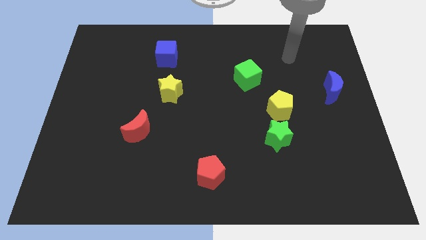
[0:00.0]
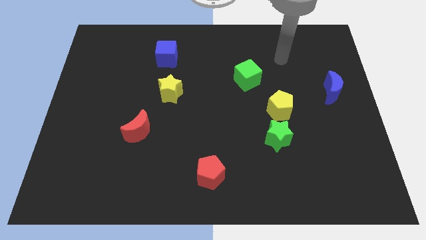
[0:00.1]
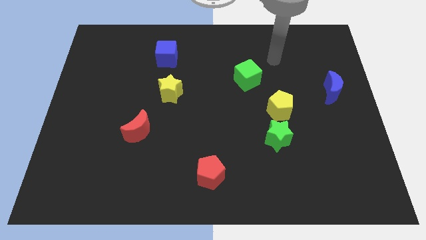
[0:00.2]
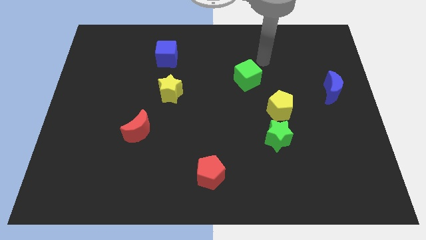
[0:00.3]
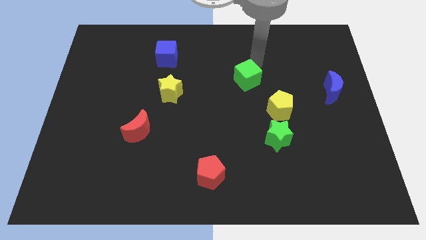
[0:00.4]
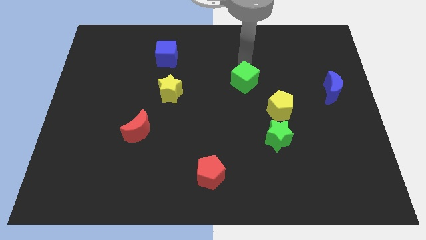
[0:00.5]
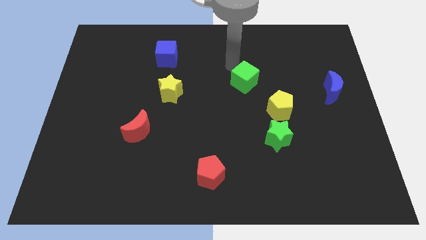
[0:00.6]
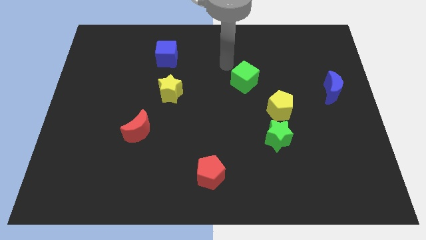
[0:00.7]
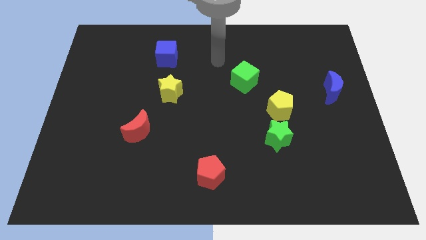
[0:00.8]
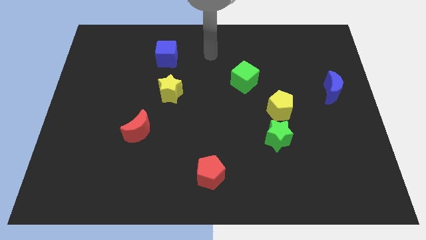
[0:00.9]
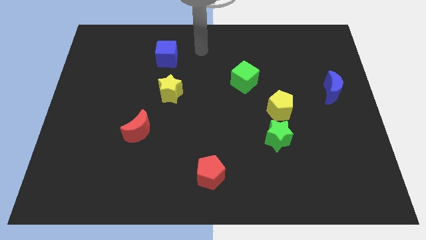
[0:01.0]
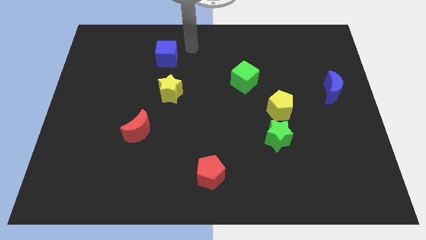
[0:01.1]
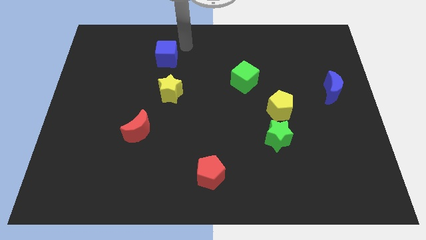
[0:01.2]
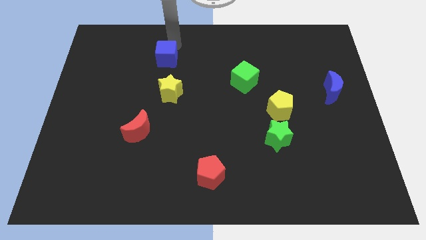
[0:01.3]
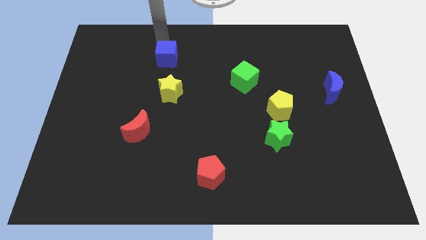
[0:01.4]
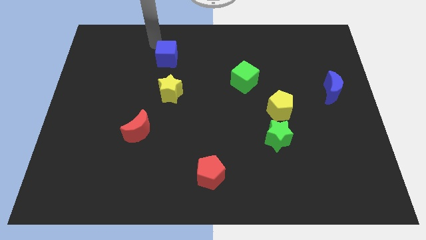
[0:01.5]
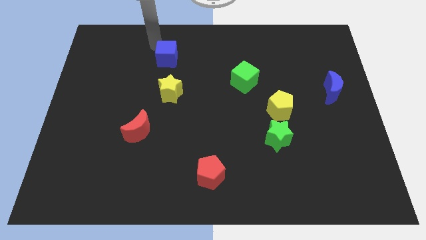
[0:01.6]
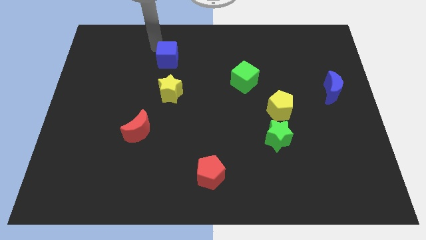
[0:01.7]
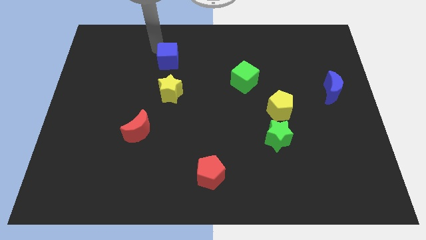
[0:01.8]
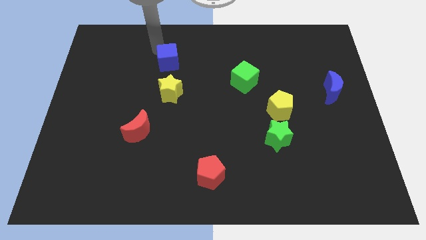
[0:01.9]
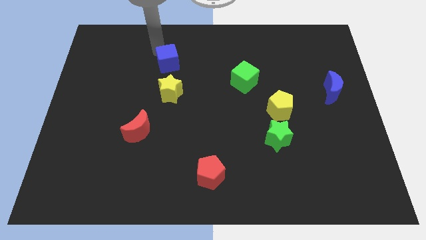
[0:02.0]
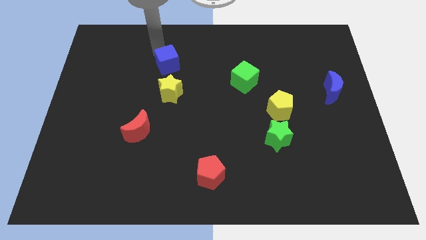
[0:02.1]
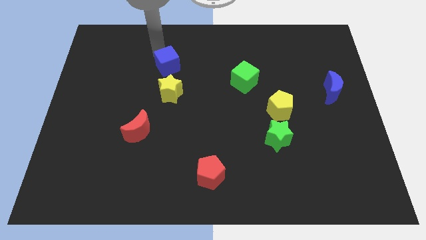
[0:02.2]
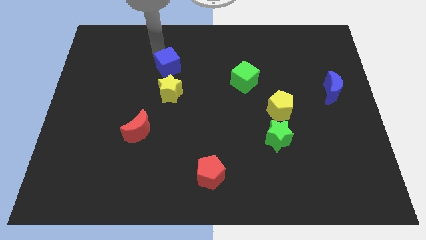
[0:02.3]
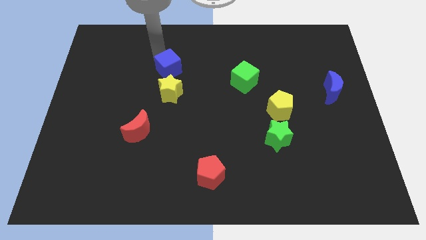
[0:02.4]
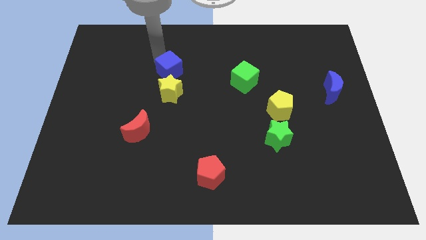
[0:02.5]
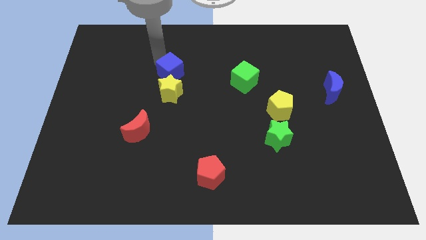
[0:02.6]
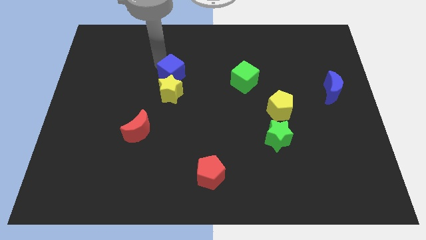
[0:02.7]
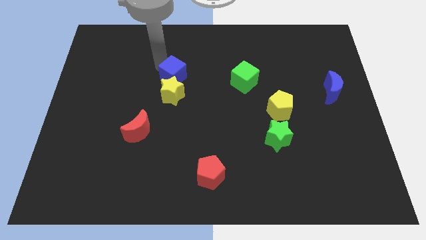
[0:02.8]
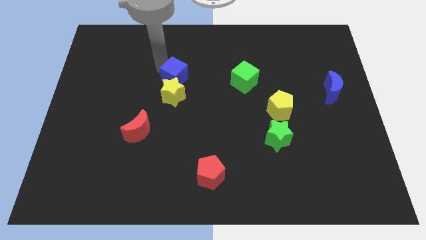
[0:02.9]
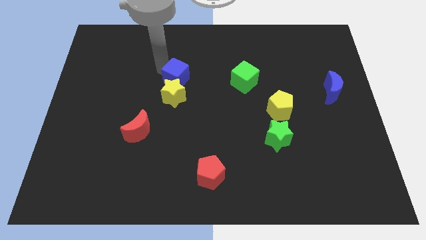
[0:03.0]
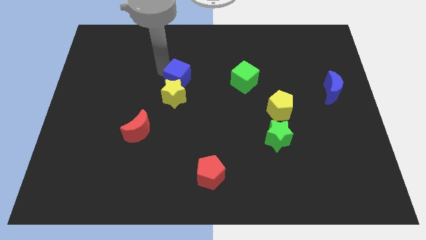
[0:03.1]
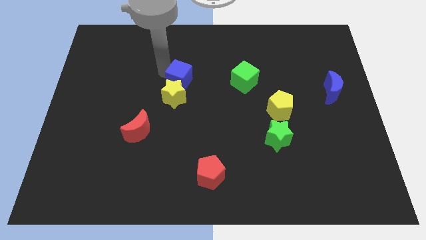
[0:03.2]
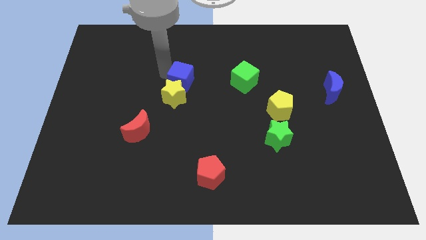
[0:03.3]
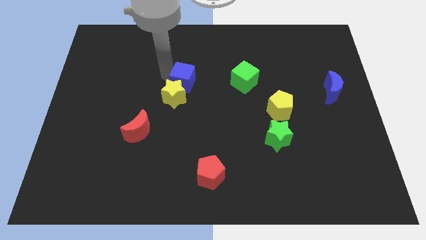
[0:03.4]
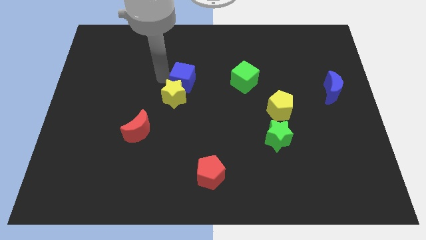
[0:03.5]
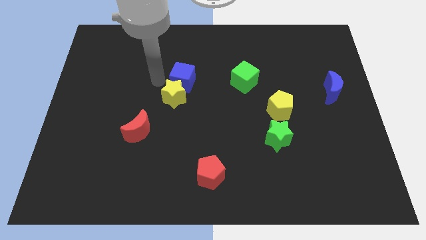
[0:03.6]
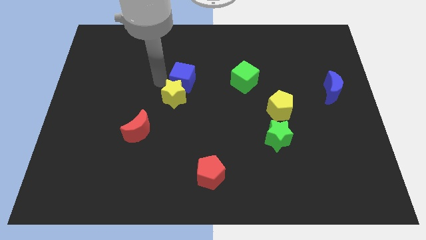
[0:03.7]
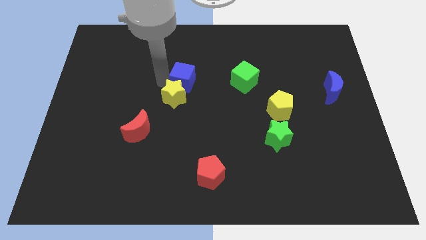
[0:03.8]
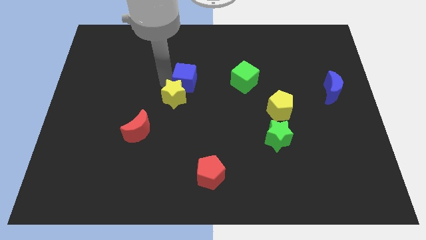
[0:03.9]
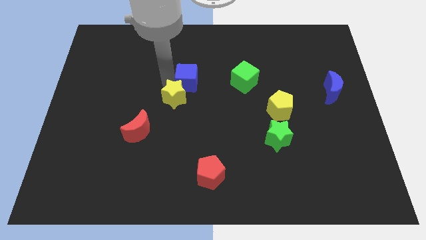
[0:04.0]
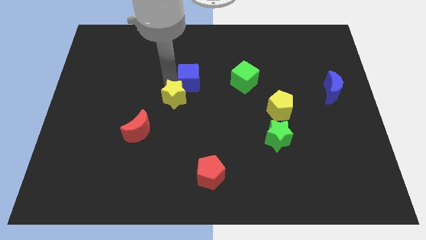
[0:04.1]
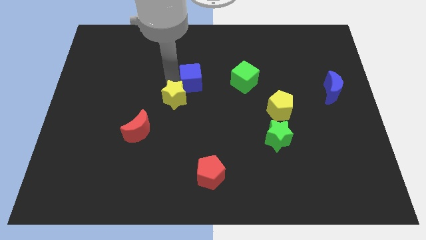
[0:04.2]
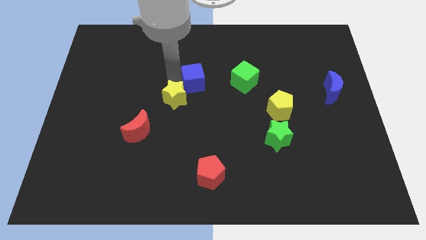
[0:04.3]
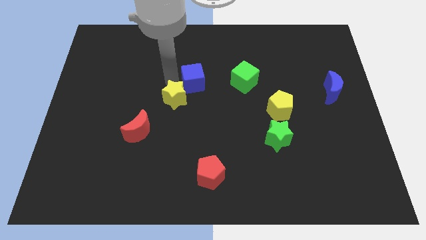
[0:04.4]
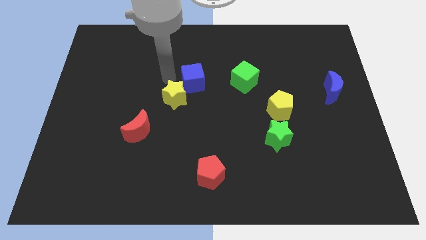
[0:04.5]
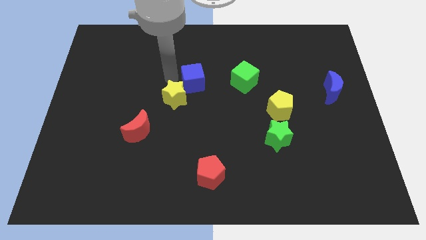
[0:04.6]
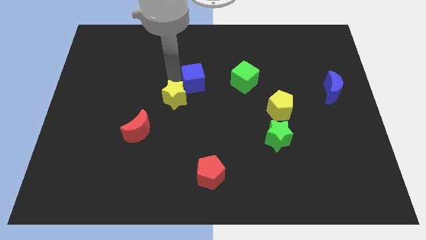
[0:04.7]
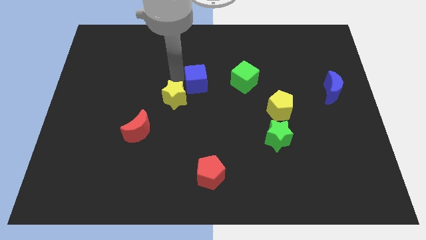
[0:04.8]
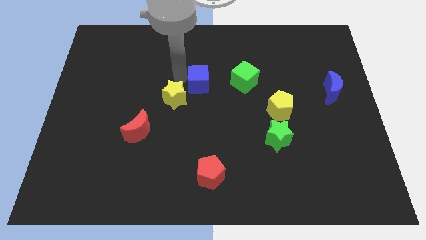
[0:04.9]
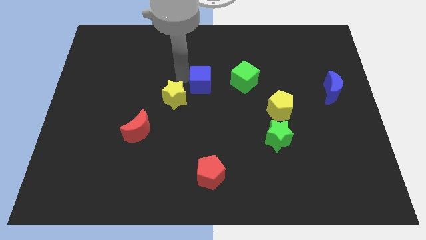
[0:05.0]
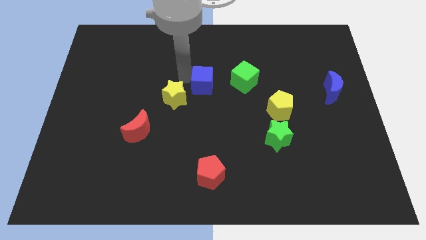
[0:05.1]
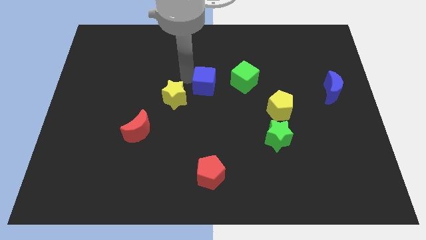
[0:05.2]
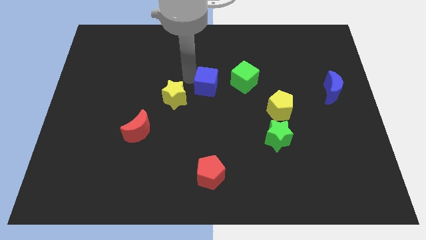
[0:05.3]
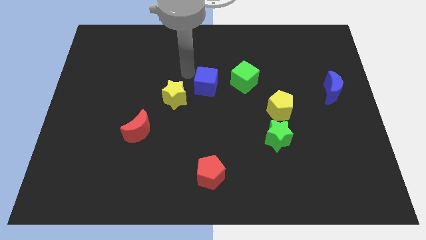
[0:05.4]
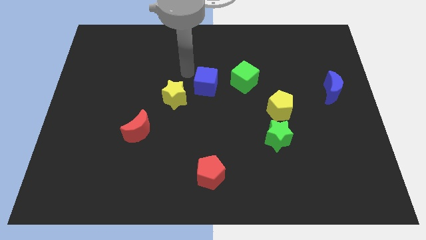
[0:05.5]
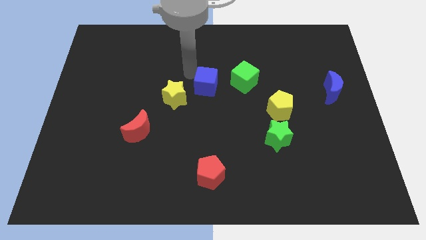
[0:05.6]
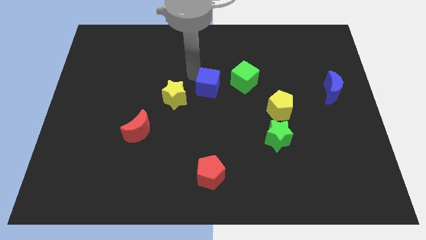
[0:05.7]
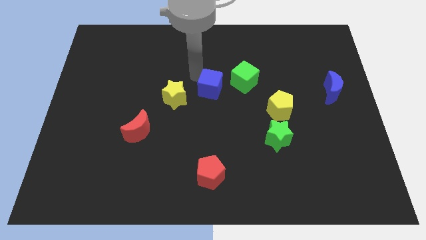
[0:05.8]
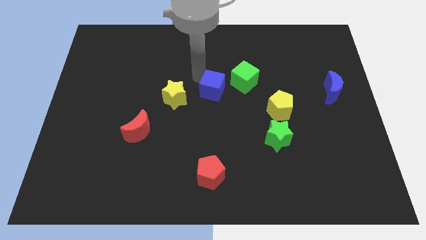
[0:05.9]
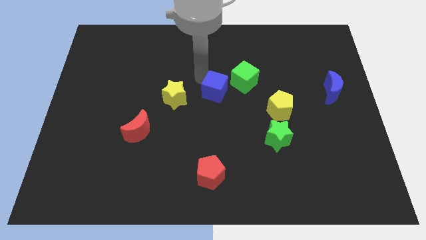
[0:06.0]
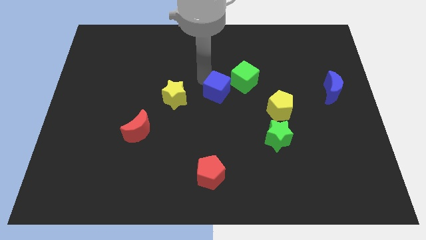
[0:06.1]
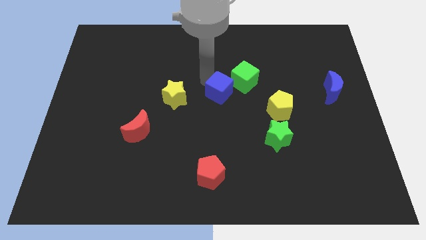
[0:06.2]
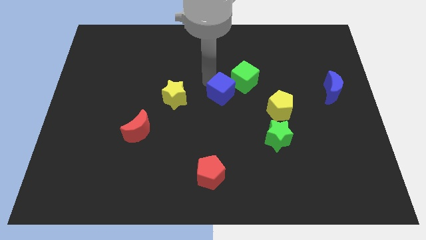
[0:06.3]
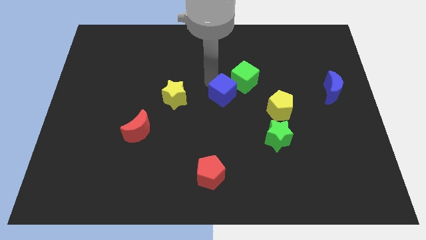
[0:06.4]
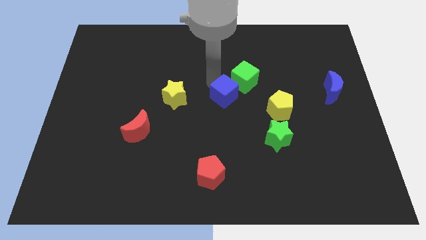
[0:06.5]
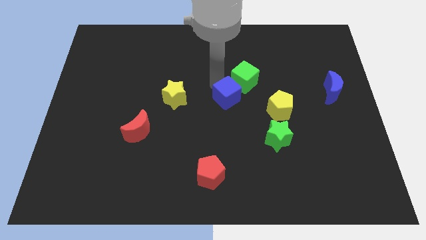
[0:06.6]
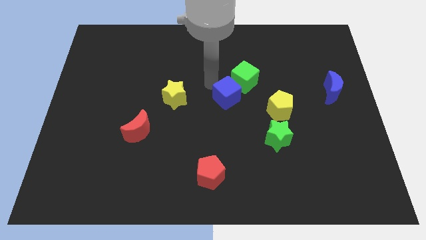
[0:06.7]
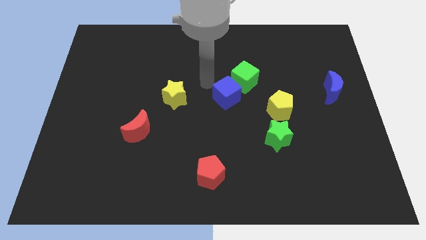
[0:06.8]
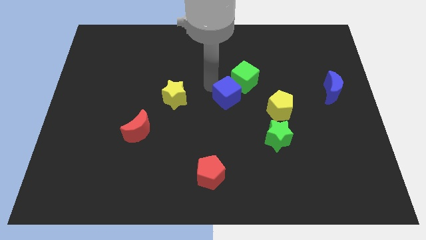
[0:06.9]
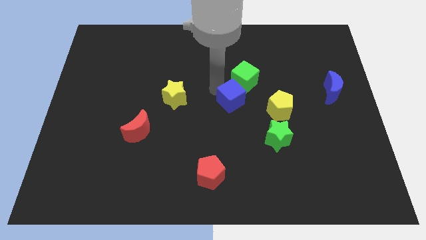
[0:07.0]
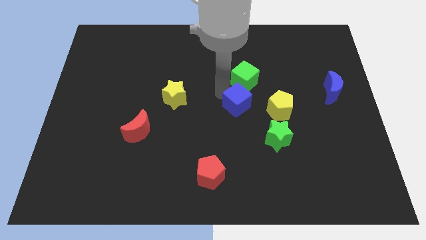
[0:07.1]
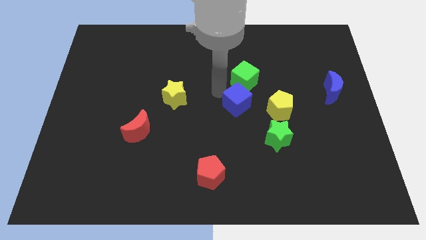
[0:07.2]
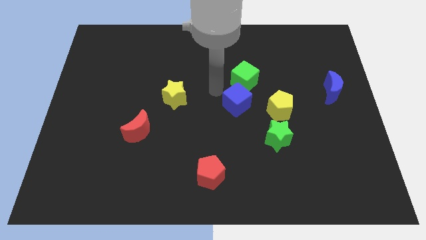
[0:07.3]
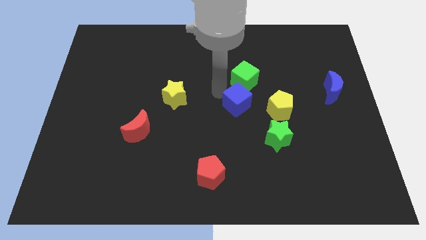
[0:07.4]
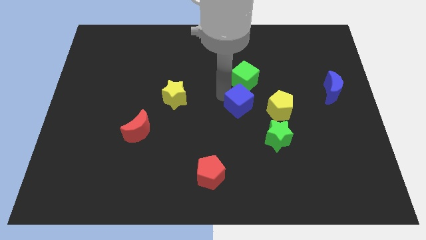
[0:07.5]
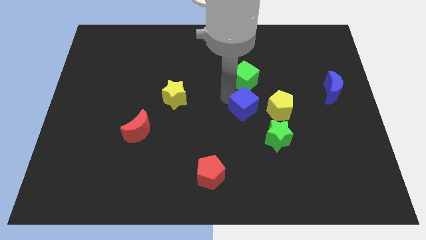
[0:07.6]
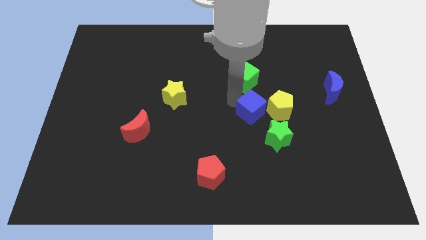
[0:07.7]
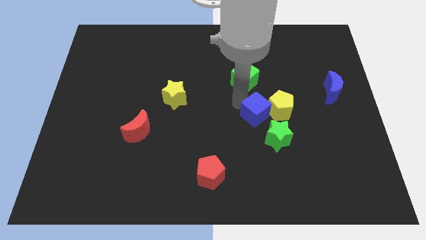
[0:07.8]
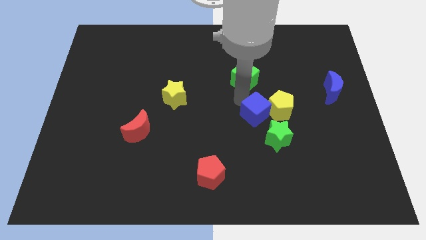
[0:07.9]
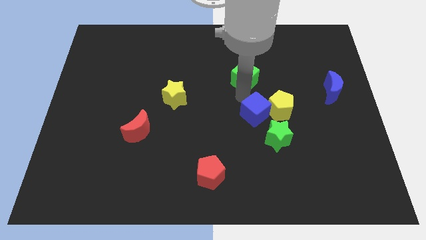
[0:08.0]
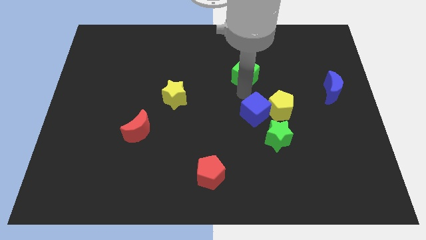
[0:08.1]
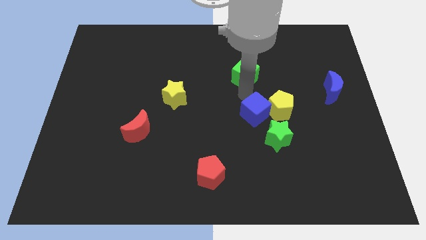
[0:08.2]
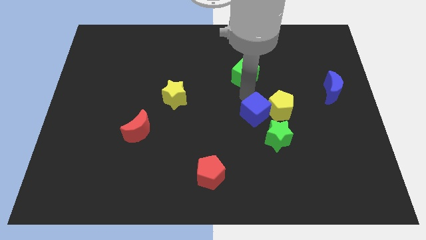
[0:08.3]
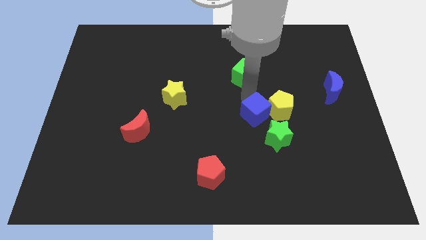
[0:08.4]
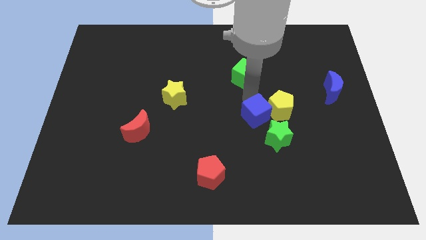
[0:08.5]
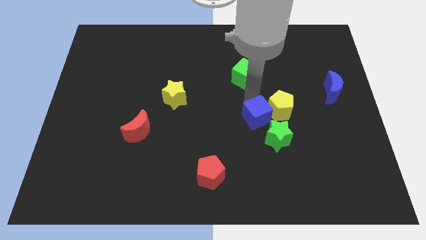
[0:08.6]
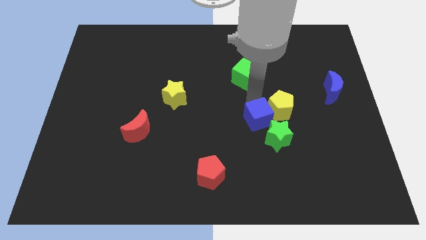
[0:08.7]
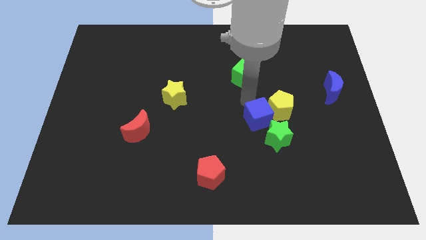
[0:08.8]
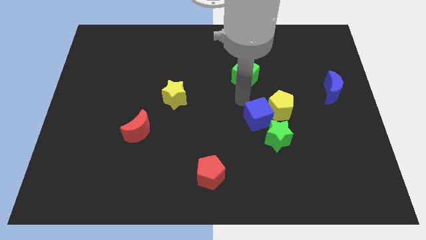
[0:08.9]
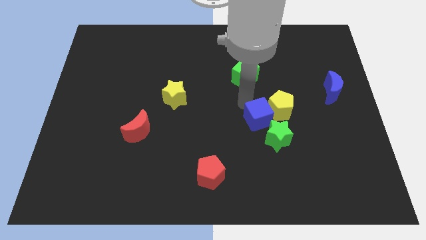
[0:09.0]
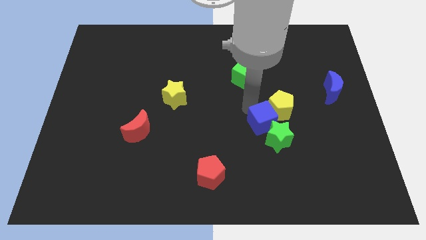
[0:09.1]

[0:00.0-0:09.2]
push the blue cube towards the green star
